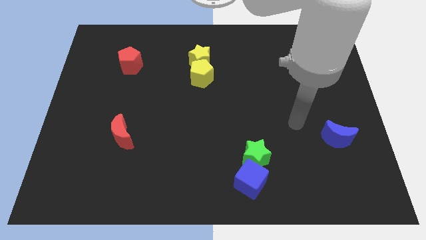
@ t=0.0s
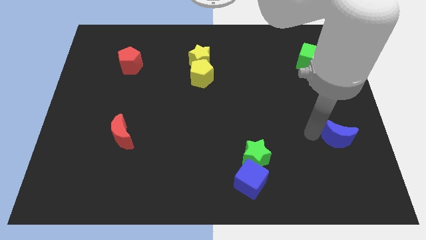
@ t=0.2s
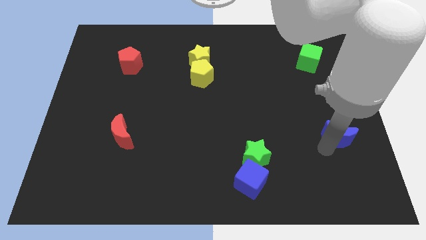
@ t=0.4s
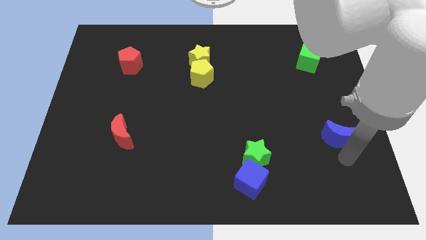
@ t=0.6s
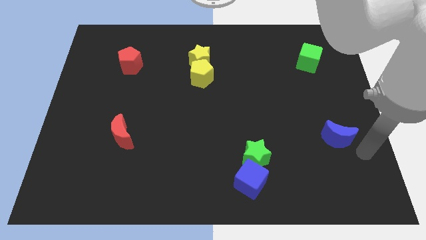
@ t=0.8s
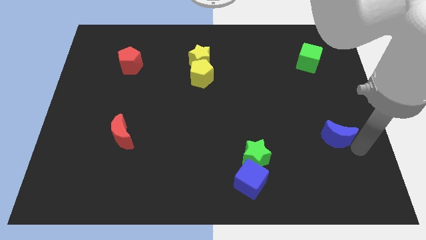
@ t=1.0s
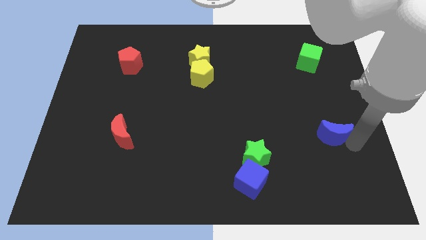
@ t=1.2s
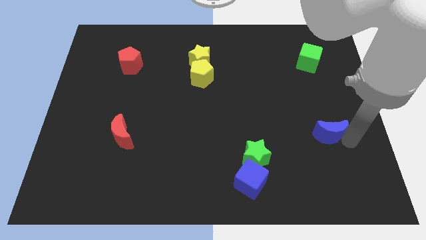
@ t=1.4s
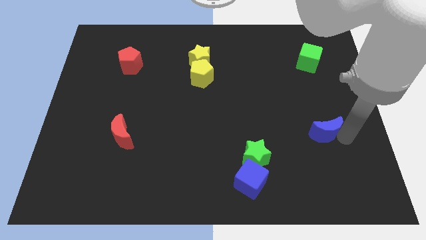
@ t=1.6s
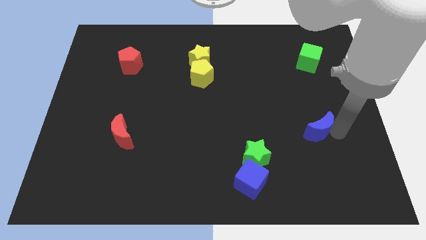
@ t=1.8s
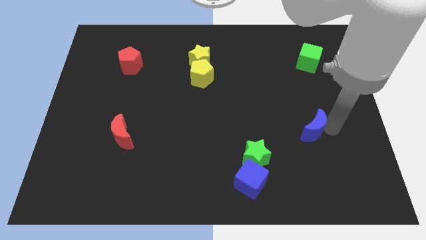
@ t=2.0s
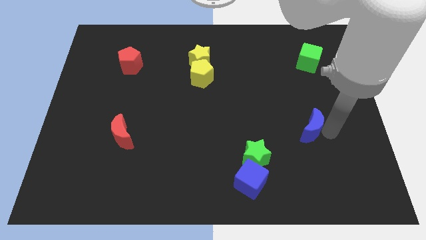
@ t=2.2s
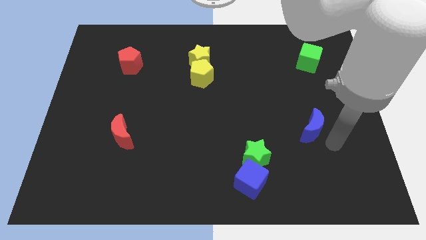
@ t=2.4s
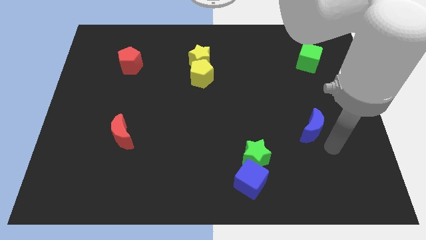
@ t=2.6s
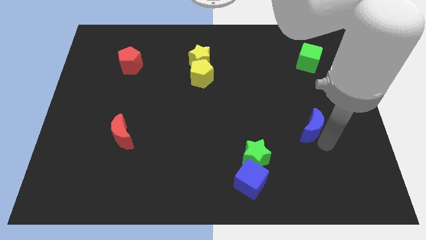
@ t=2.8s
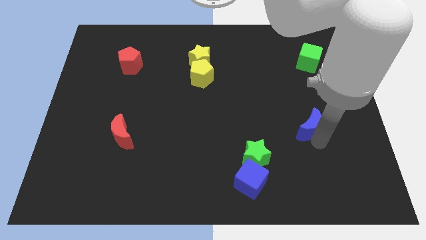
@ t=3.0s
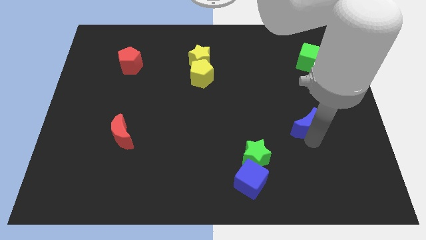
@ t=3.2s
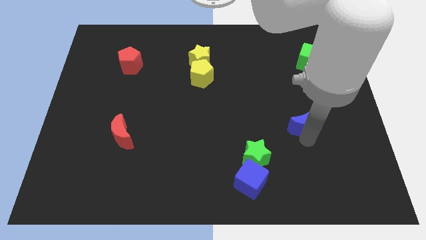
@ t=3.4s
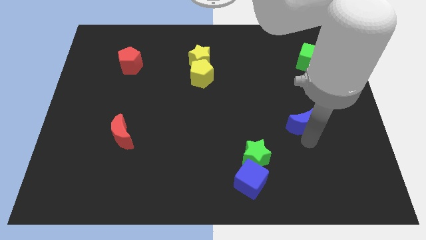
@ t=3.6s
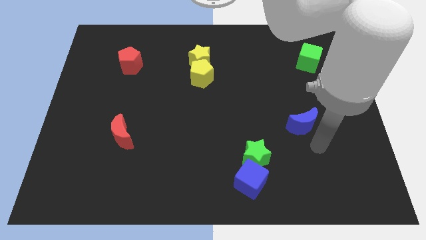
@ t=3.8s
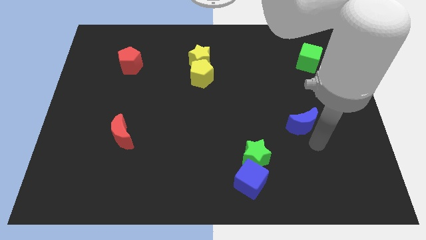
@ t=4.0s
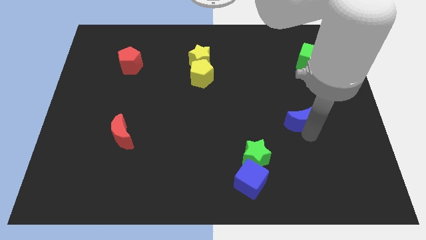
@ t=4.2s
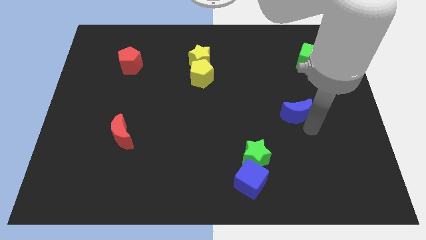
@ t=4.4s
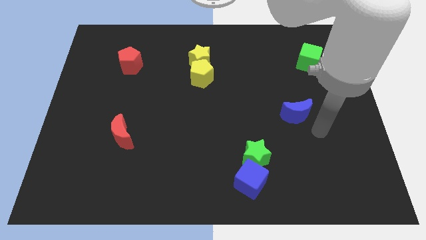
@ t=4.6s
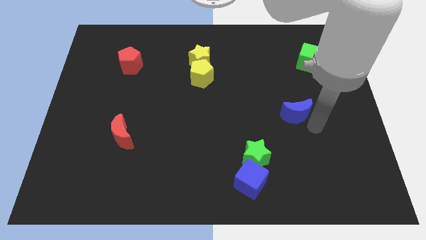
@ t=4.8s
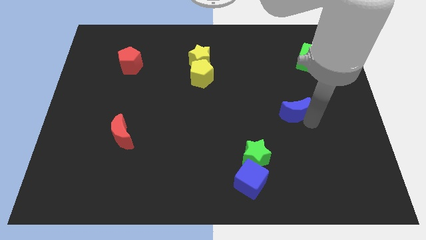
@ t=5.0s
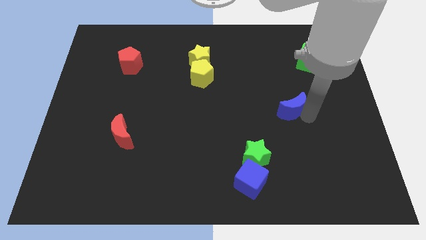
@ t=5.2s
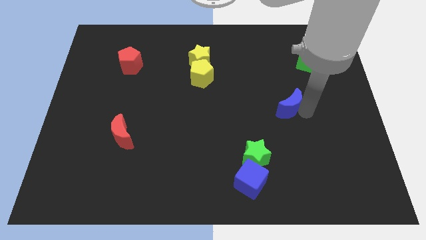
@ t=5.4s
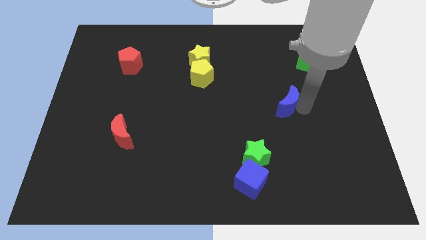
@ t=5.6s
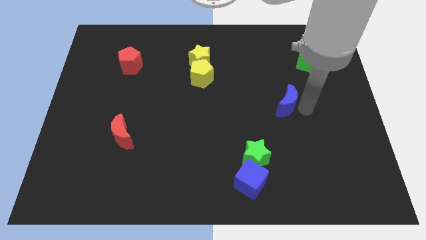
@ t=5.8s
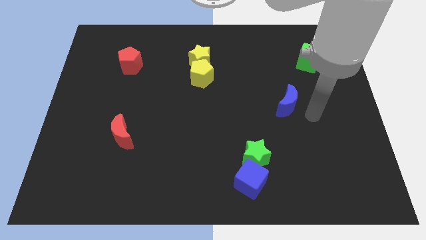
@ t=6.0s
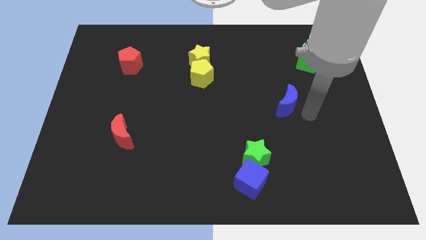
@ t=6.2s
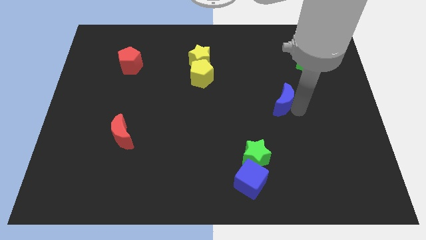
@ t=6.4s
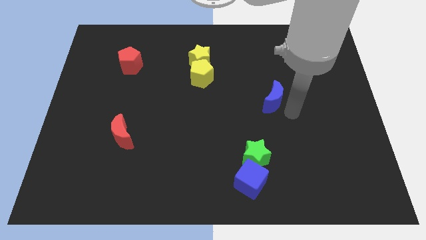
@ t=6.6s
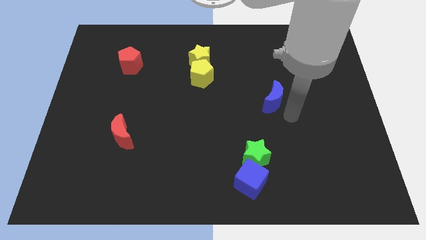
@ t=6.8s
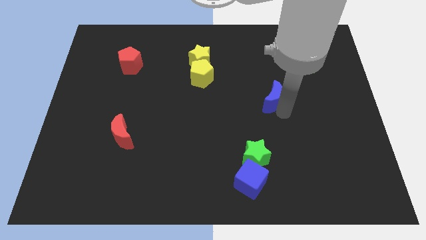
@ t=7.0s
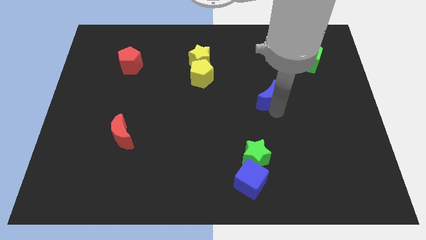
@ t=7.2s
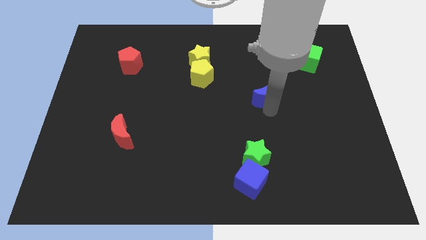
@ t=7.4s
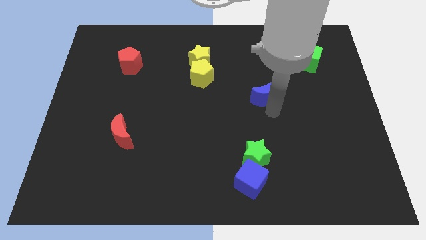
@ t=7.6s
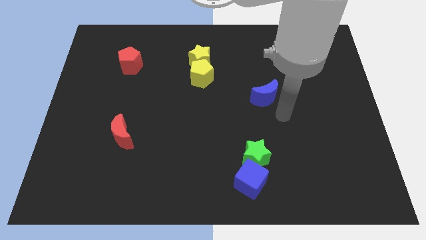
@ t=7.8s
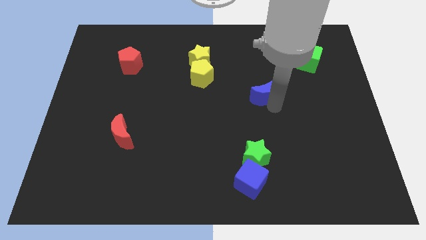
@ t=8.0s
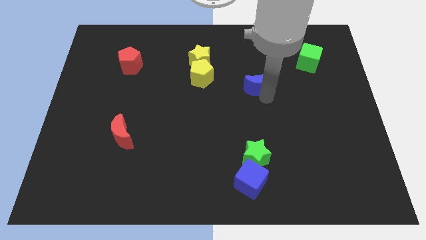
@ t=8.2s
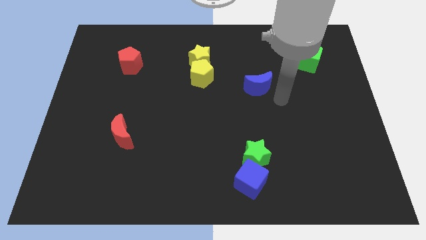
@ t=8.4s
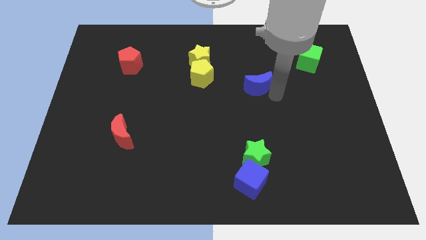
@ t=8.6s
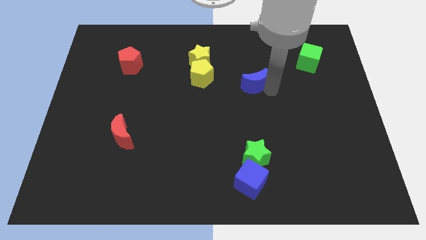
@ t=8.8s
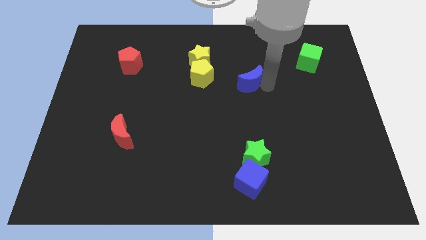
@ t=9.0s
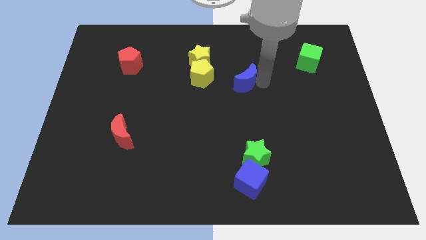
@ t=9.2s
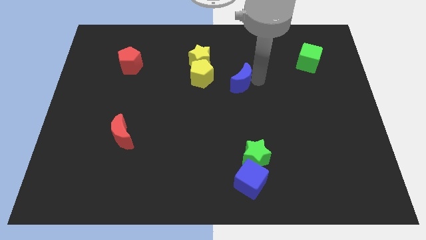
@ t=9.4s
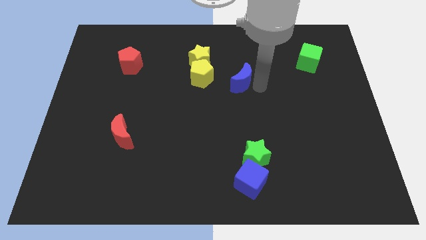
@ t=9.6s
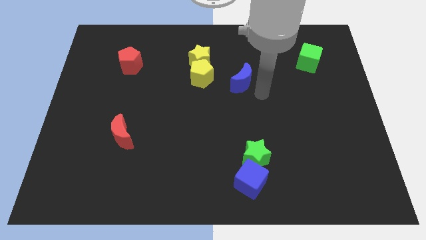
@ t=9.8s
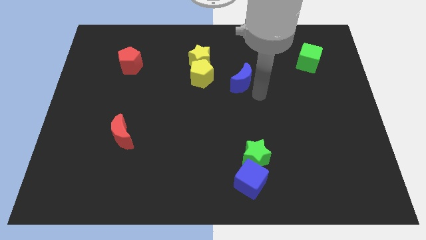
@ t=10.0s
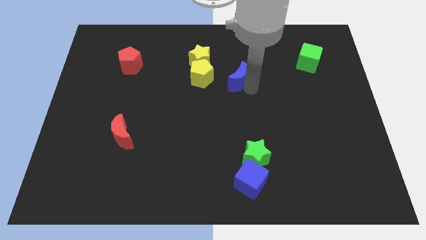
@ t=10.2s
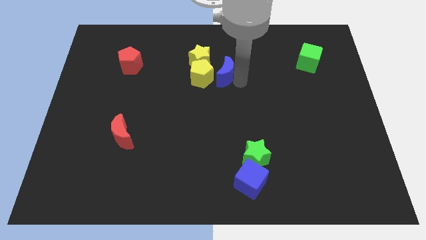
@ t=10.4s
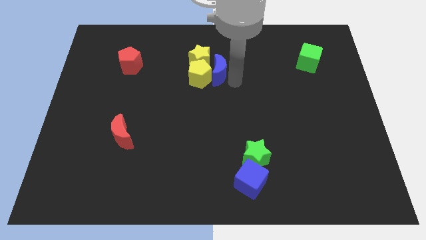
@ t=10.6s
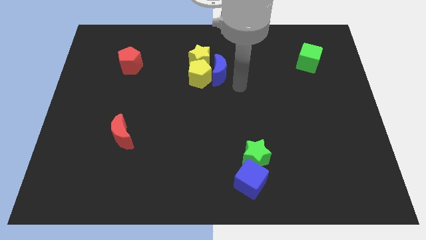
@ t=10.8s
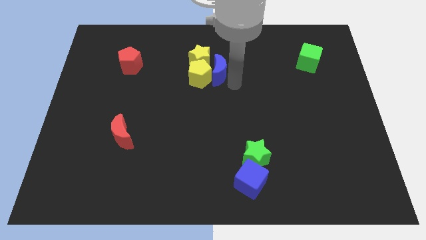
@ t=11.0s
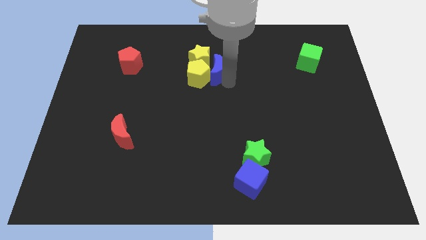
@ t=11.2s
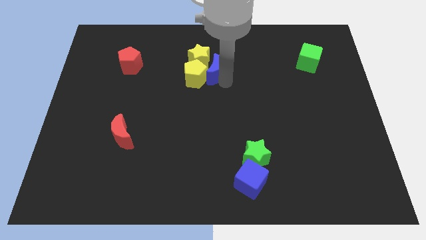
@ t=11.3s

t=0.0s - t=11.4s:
slide the blue moon to the yellow star
